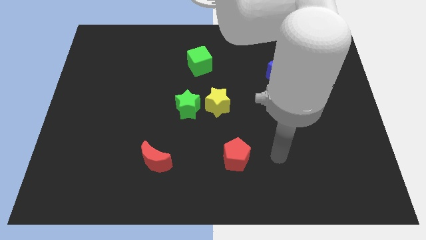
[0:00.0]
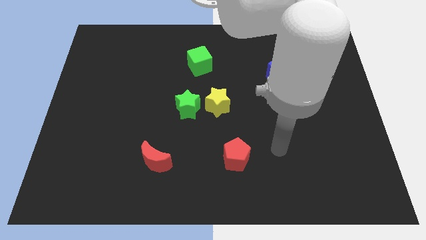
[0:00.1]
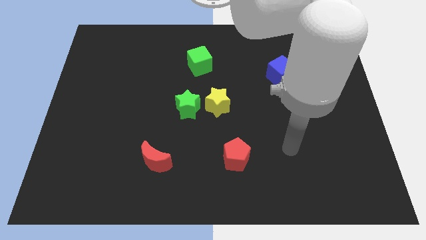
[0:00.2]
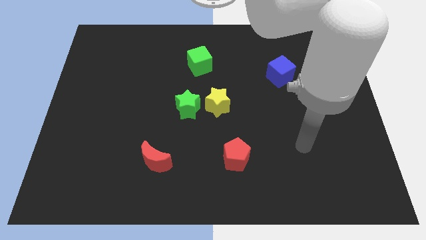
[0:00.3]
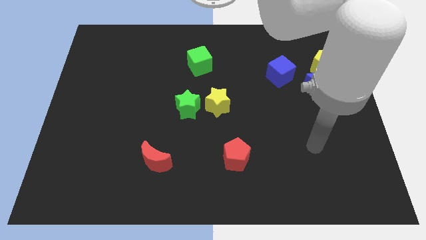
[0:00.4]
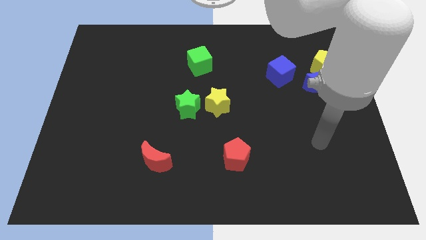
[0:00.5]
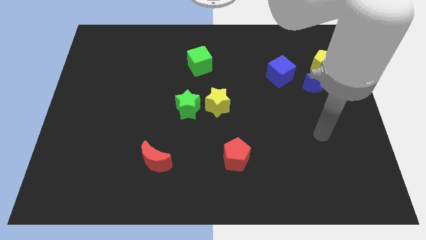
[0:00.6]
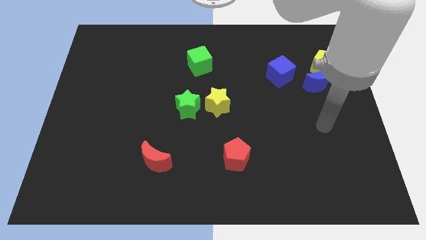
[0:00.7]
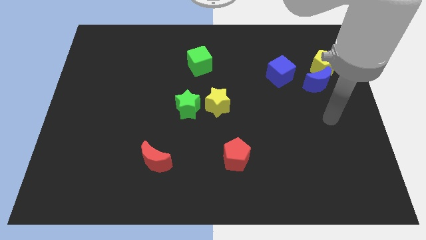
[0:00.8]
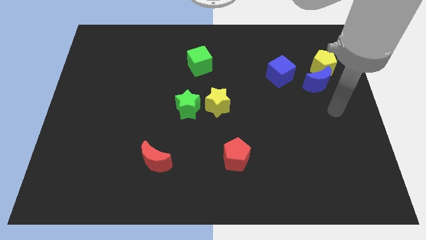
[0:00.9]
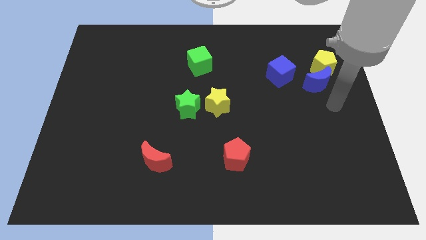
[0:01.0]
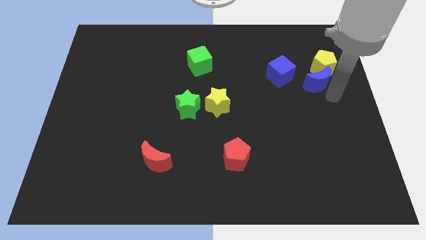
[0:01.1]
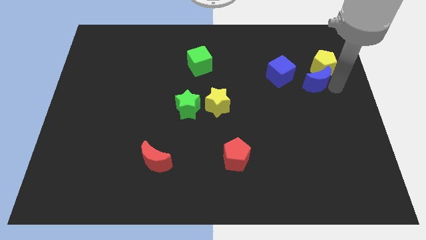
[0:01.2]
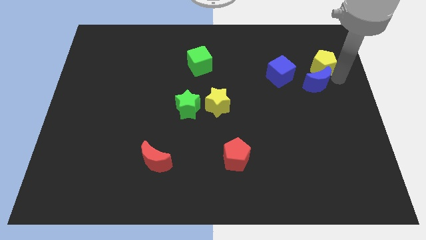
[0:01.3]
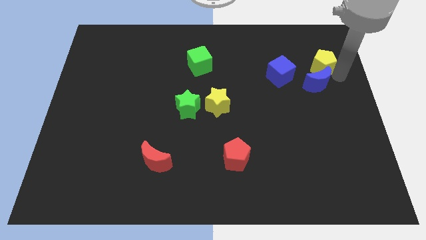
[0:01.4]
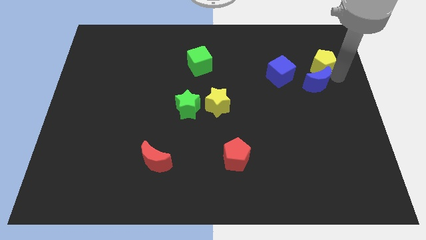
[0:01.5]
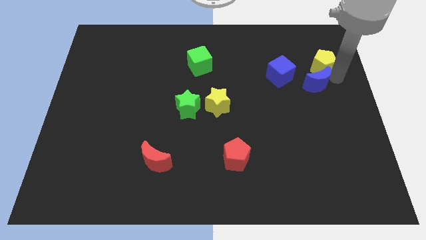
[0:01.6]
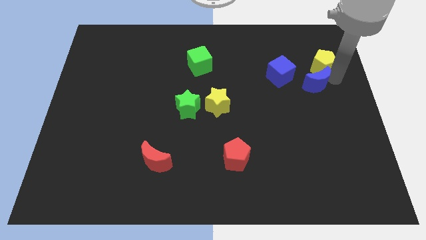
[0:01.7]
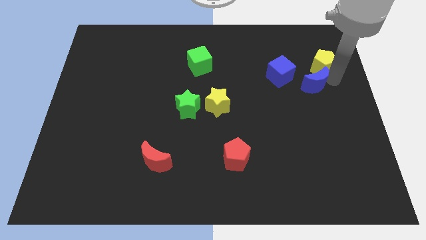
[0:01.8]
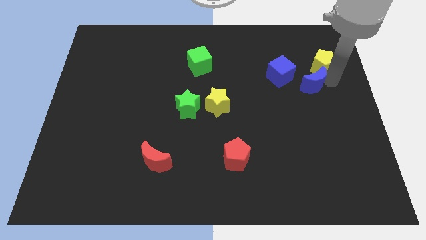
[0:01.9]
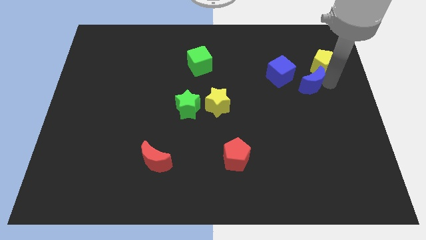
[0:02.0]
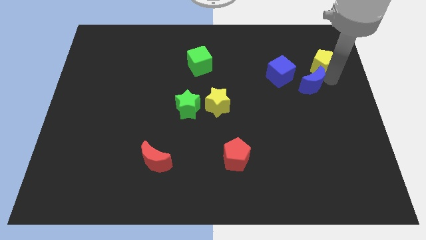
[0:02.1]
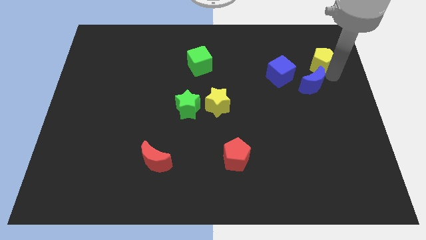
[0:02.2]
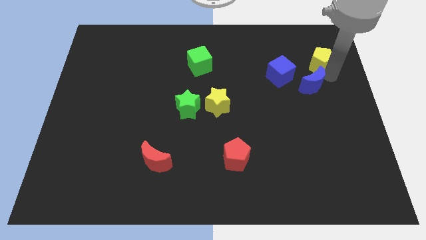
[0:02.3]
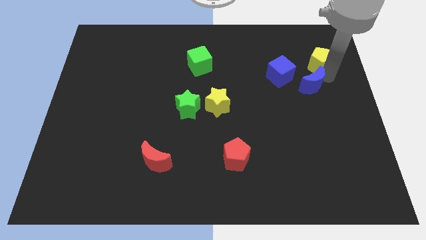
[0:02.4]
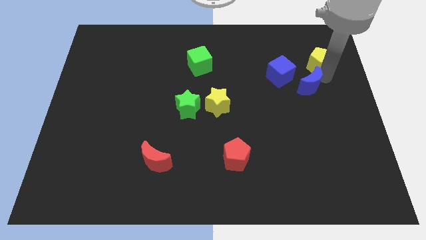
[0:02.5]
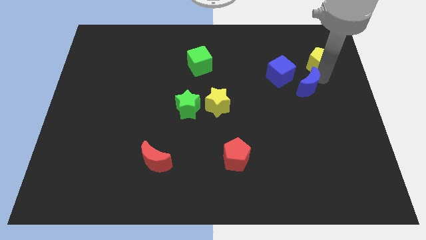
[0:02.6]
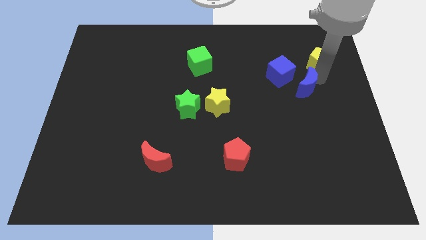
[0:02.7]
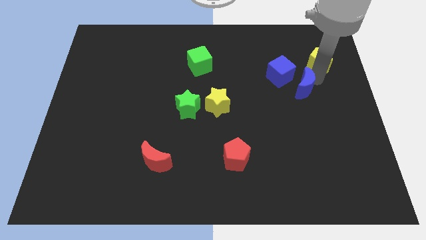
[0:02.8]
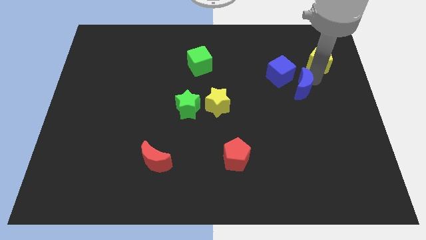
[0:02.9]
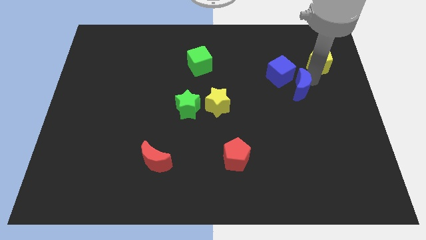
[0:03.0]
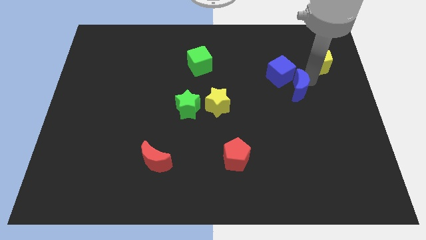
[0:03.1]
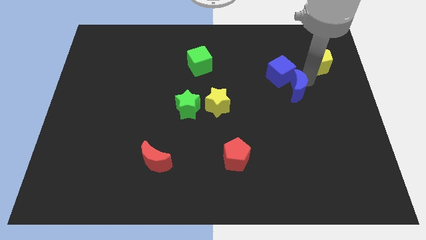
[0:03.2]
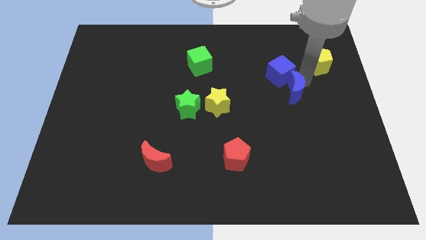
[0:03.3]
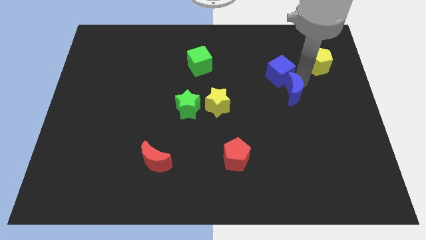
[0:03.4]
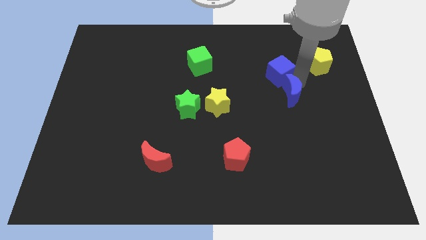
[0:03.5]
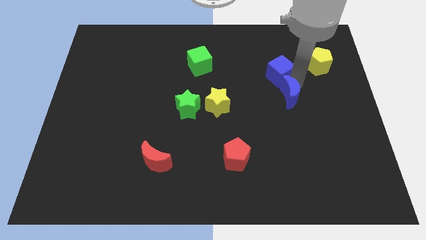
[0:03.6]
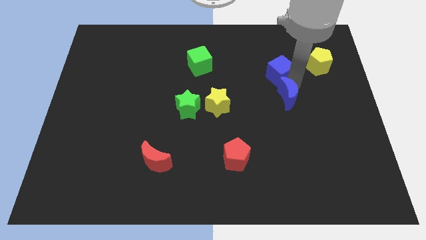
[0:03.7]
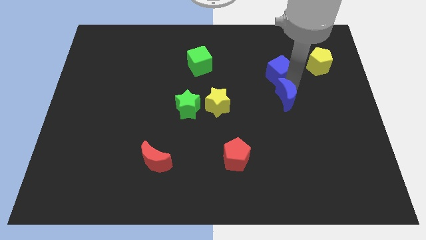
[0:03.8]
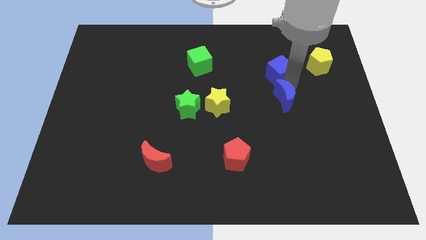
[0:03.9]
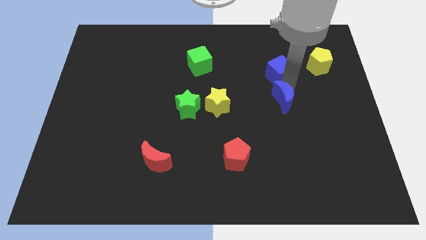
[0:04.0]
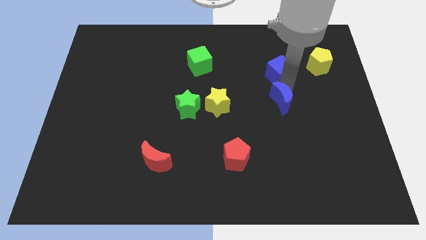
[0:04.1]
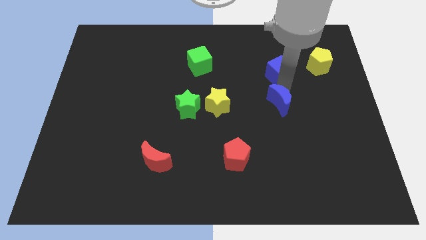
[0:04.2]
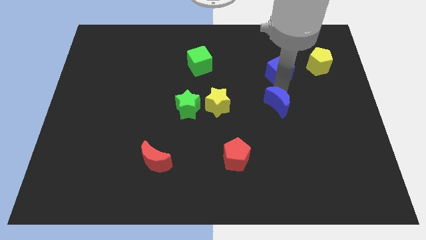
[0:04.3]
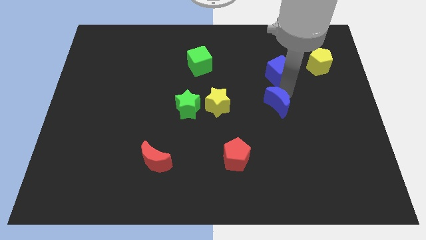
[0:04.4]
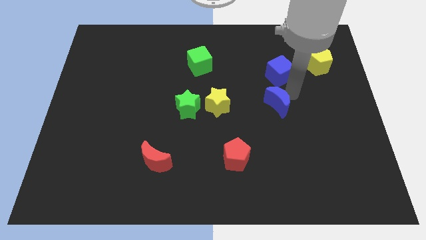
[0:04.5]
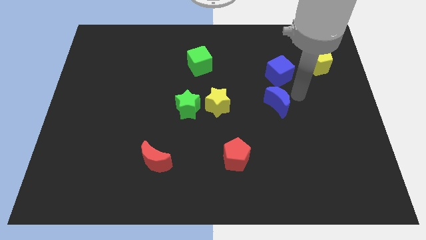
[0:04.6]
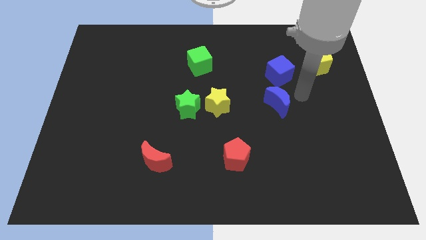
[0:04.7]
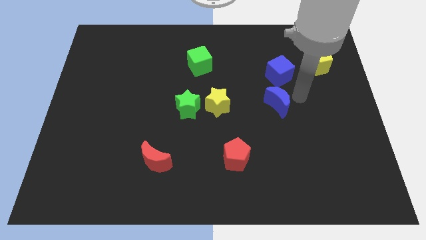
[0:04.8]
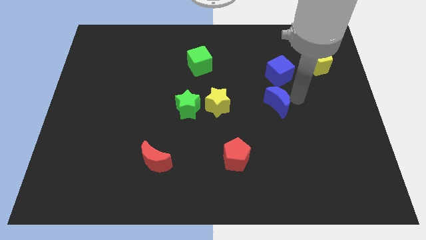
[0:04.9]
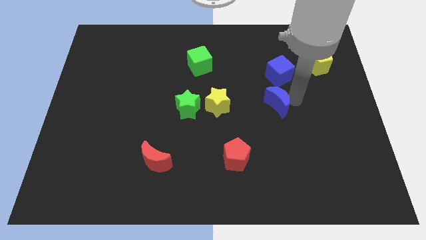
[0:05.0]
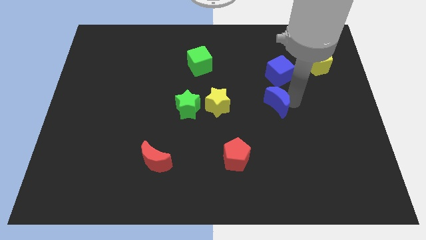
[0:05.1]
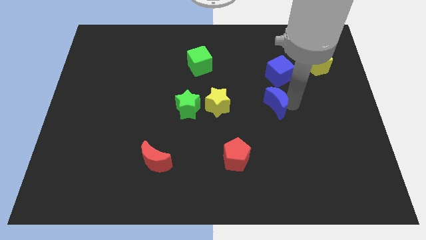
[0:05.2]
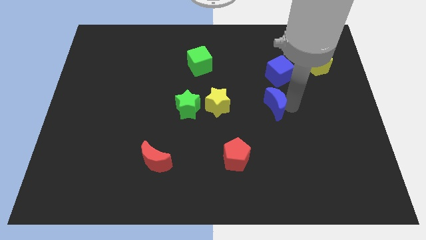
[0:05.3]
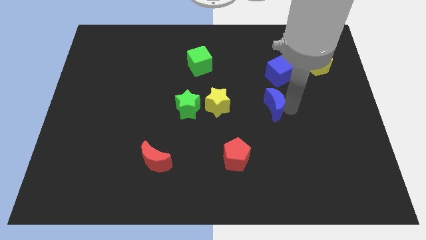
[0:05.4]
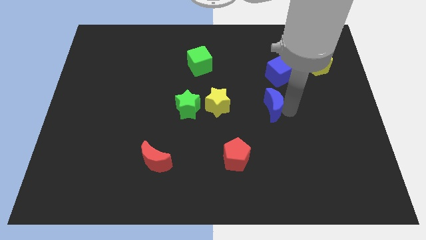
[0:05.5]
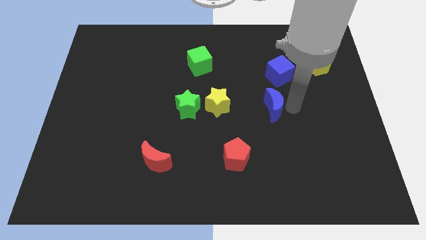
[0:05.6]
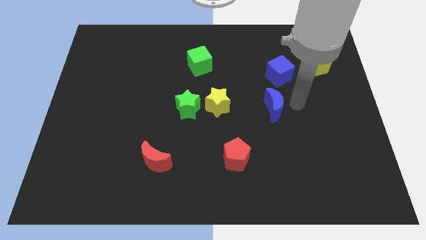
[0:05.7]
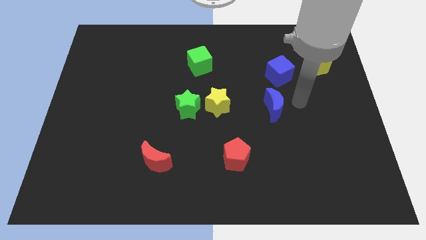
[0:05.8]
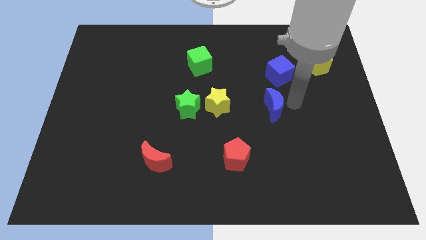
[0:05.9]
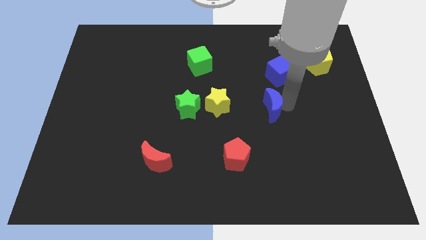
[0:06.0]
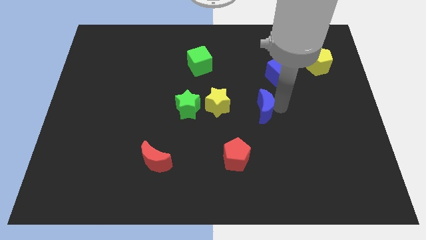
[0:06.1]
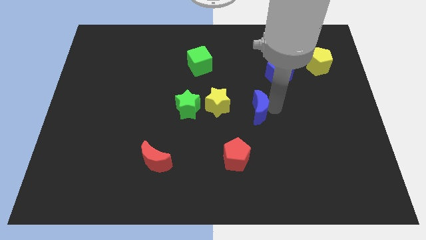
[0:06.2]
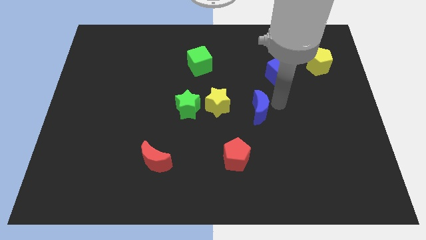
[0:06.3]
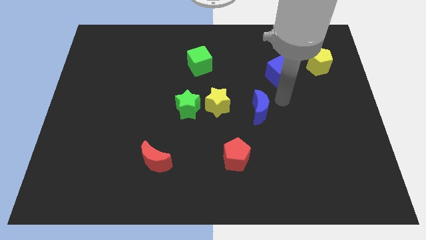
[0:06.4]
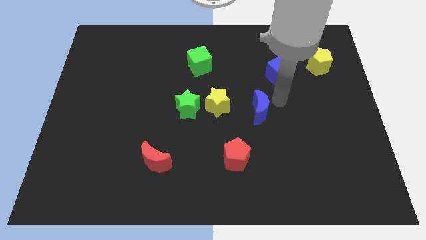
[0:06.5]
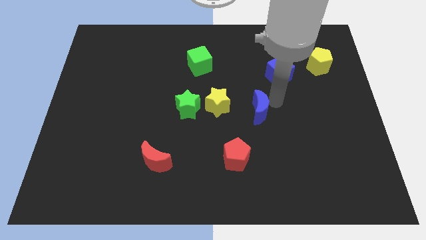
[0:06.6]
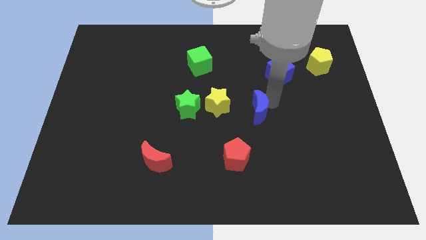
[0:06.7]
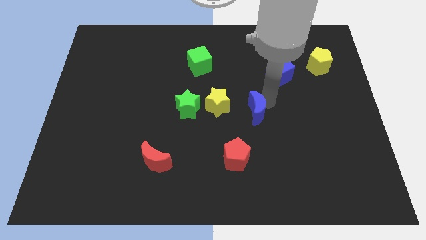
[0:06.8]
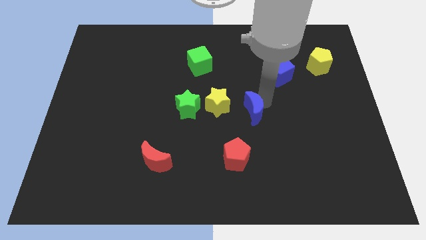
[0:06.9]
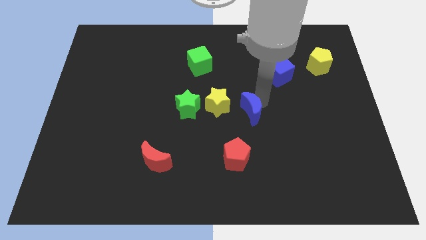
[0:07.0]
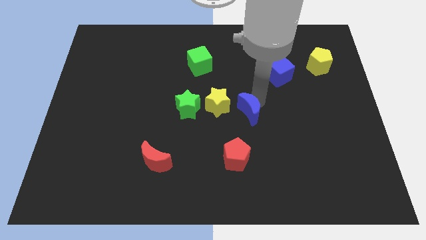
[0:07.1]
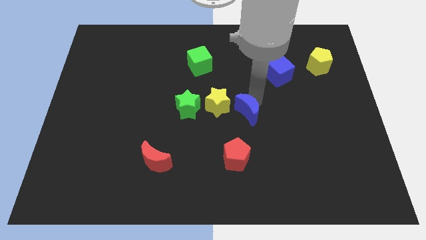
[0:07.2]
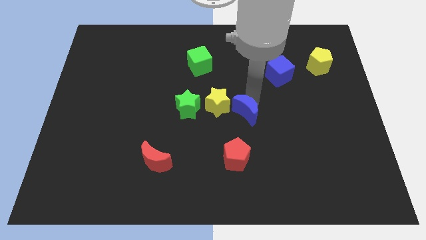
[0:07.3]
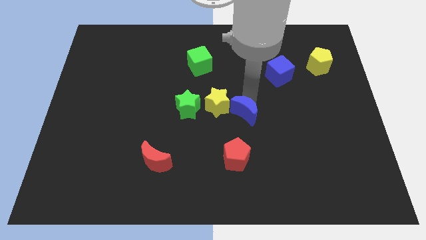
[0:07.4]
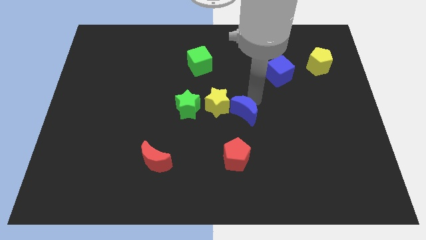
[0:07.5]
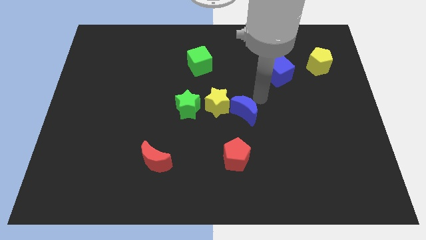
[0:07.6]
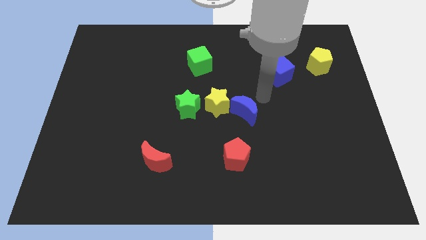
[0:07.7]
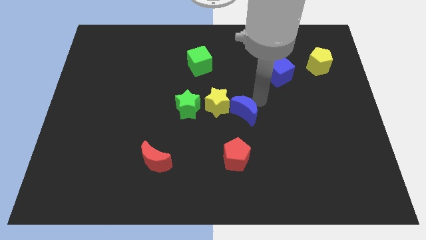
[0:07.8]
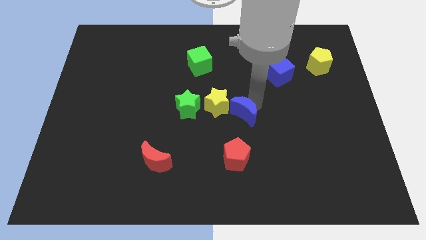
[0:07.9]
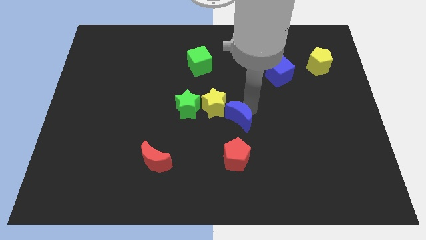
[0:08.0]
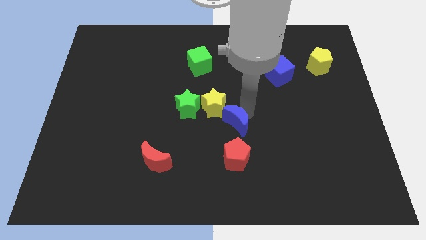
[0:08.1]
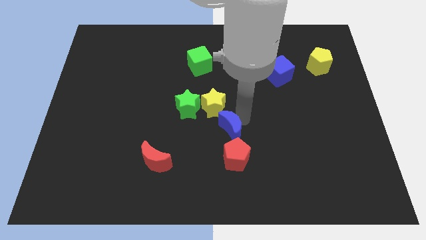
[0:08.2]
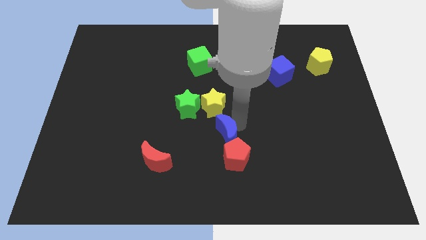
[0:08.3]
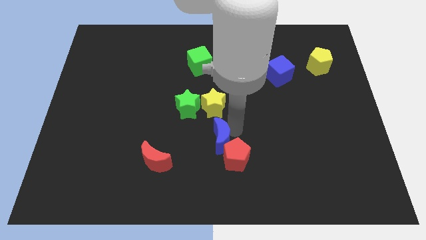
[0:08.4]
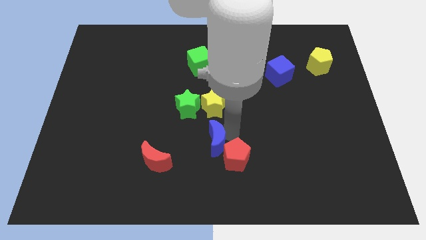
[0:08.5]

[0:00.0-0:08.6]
put the blue moon left of the red pentagon
